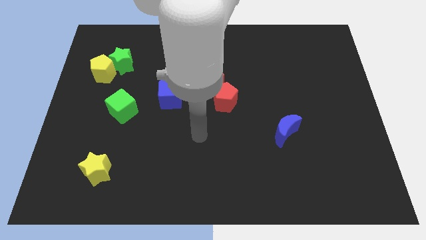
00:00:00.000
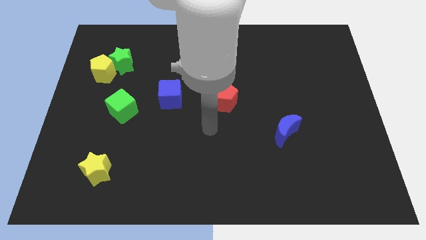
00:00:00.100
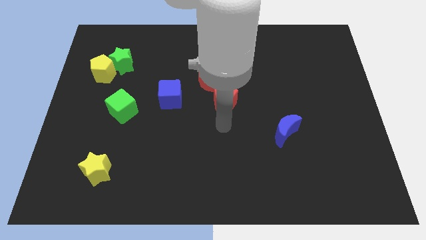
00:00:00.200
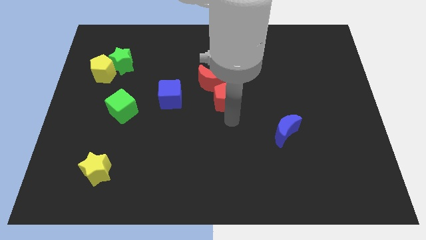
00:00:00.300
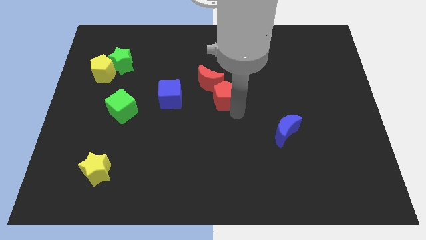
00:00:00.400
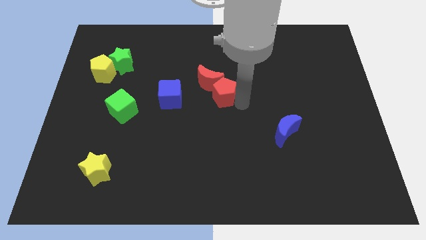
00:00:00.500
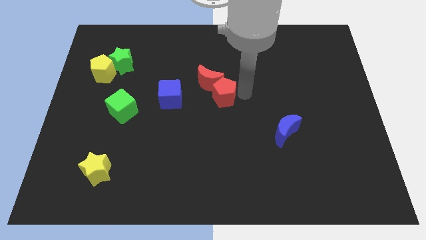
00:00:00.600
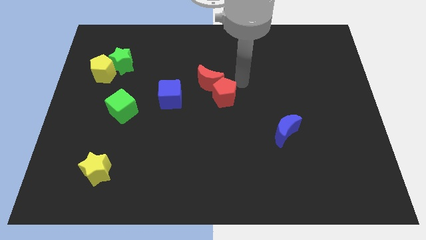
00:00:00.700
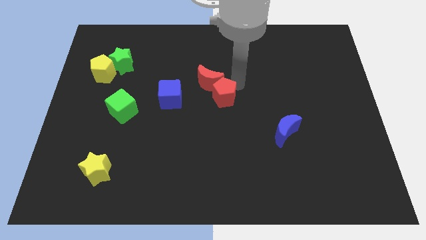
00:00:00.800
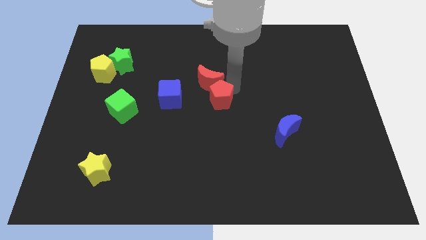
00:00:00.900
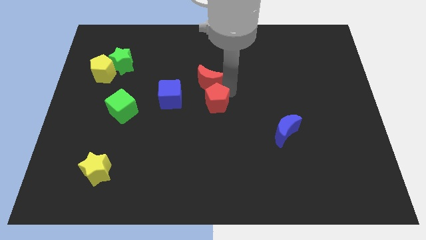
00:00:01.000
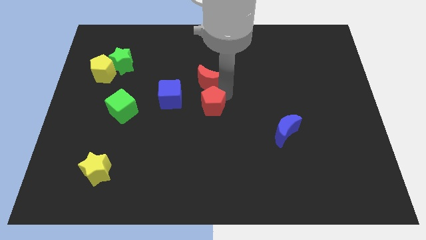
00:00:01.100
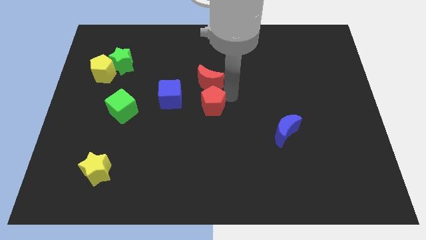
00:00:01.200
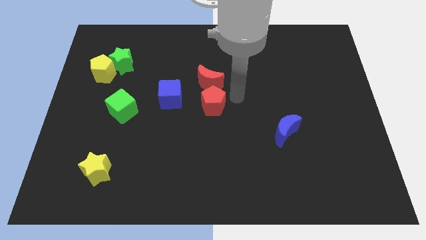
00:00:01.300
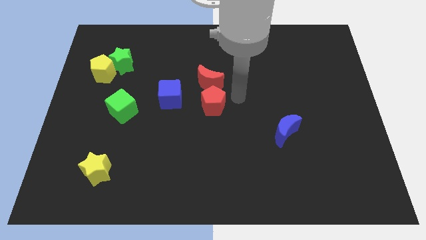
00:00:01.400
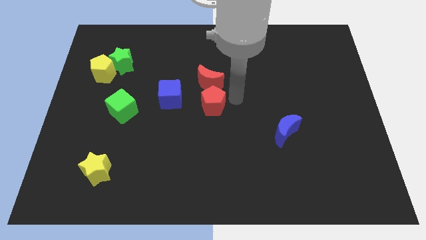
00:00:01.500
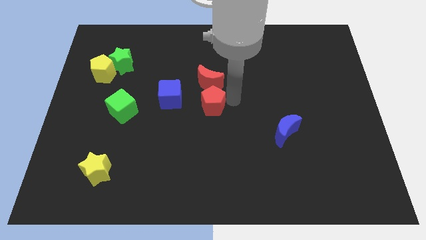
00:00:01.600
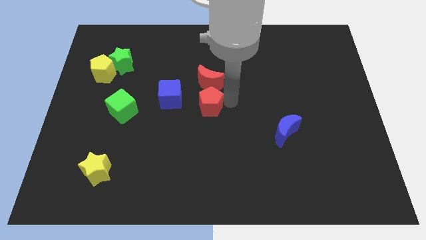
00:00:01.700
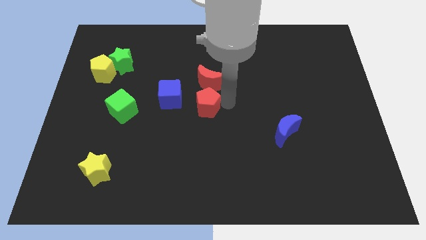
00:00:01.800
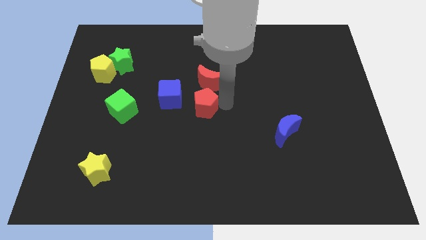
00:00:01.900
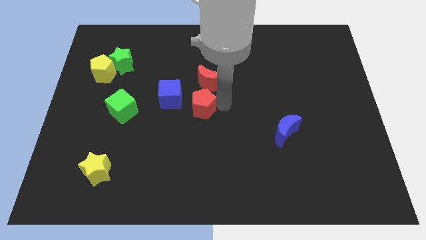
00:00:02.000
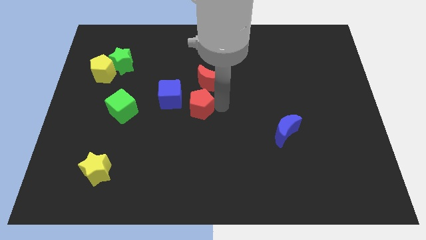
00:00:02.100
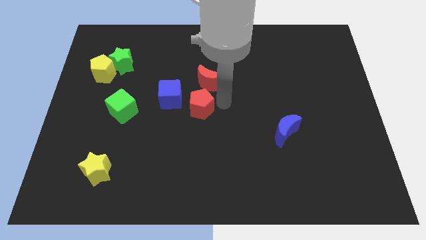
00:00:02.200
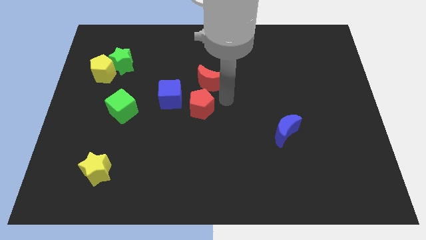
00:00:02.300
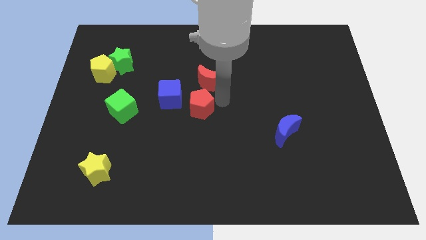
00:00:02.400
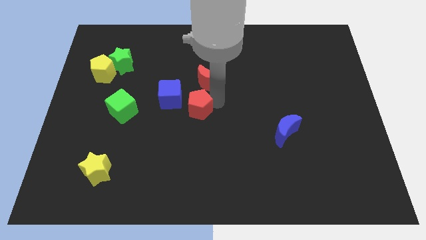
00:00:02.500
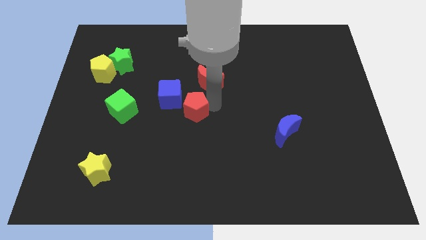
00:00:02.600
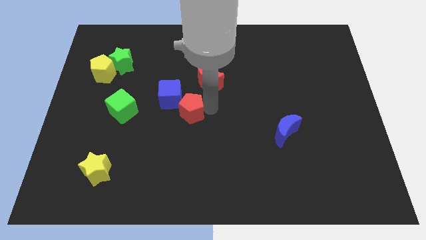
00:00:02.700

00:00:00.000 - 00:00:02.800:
move the red pentagon slightly left

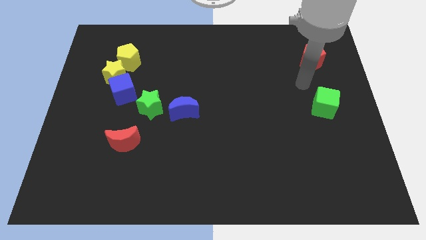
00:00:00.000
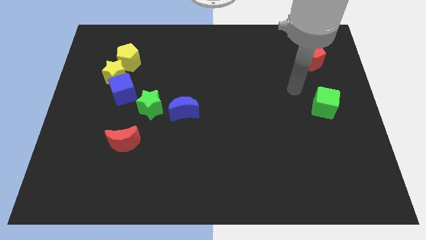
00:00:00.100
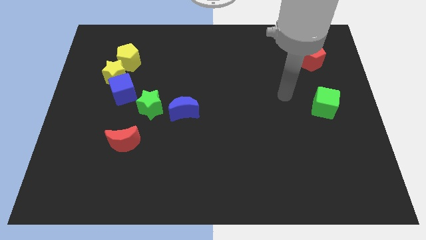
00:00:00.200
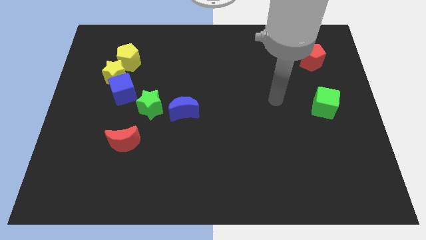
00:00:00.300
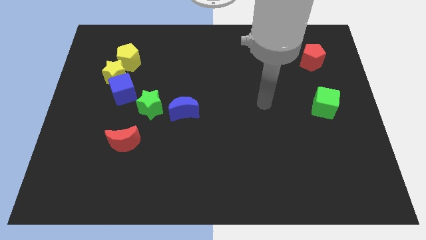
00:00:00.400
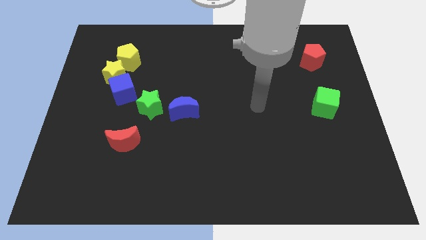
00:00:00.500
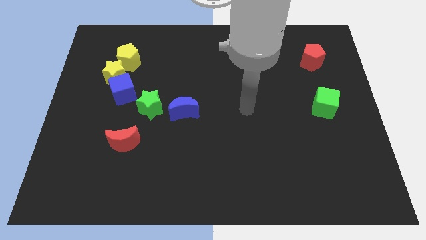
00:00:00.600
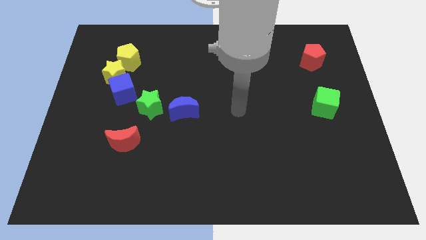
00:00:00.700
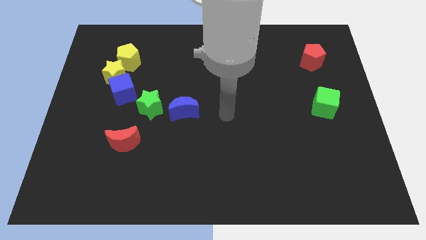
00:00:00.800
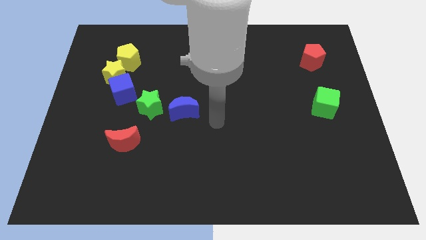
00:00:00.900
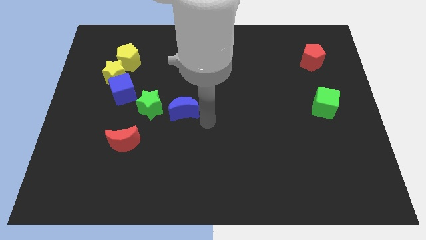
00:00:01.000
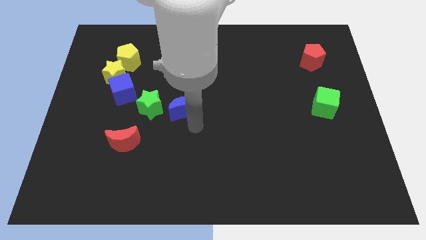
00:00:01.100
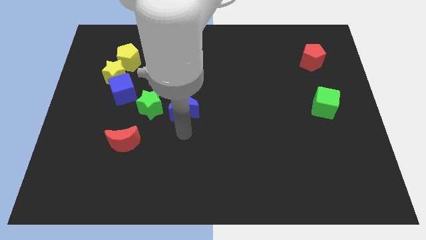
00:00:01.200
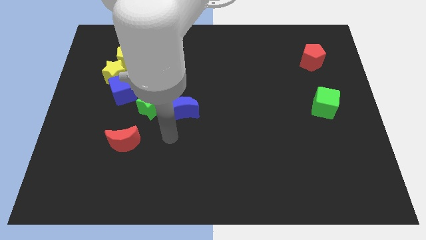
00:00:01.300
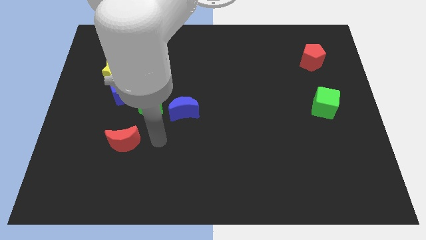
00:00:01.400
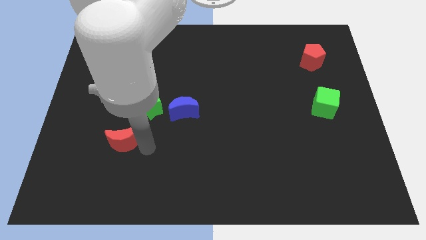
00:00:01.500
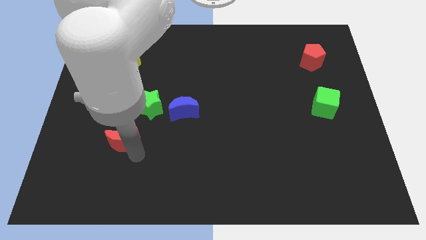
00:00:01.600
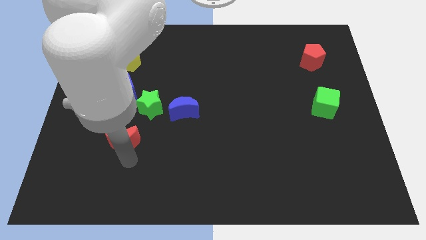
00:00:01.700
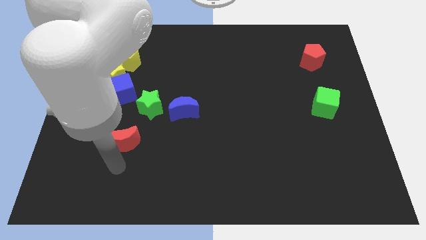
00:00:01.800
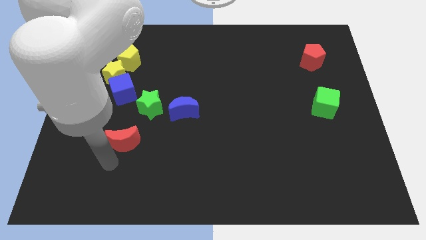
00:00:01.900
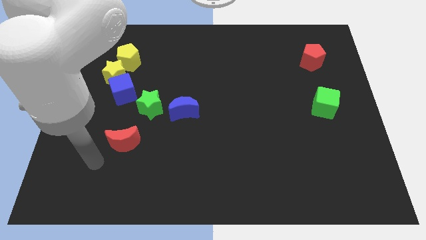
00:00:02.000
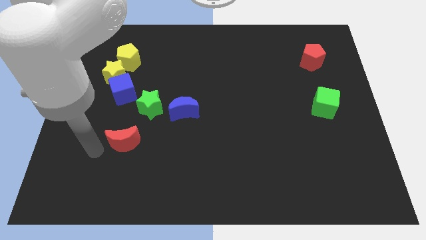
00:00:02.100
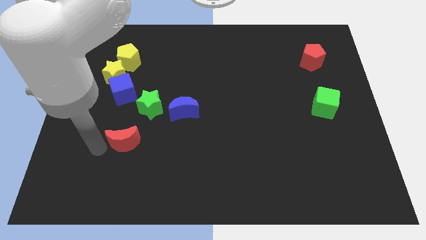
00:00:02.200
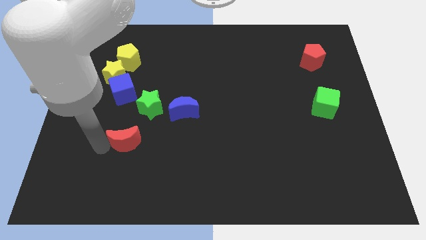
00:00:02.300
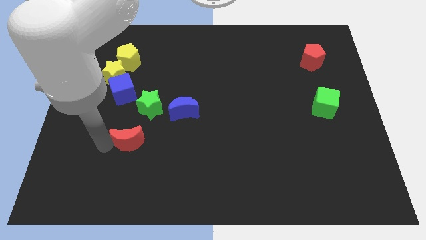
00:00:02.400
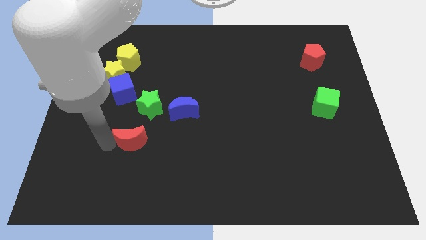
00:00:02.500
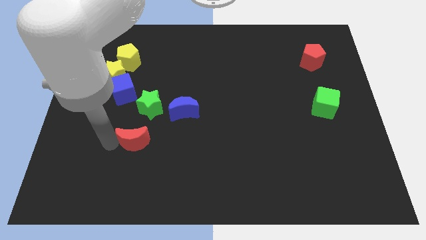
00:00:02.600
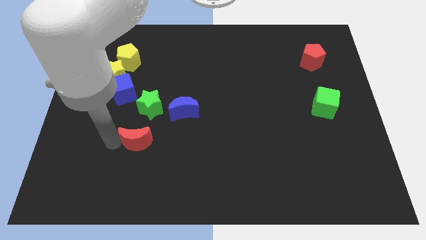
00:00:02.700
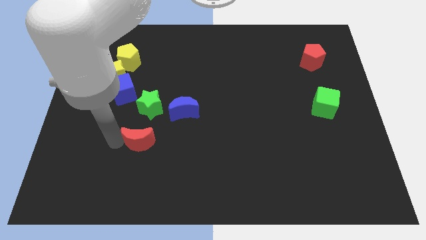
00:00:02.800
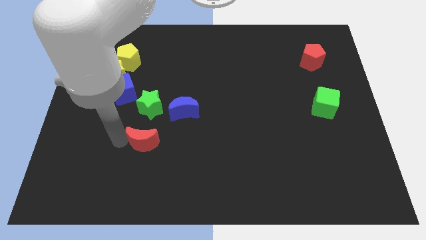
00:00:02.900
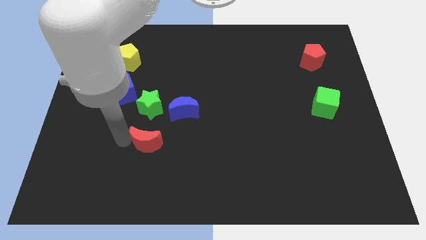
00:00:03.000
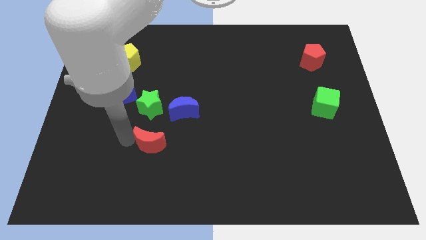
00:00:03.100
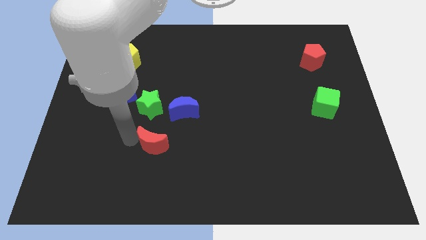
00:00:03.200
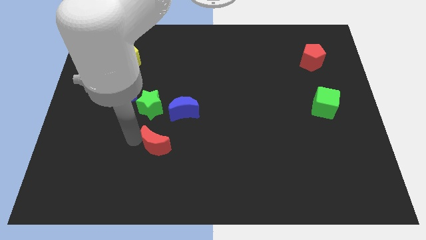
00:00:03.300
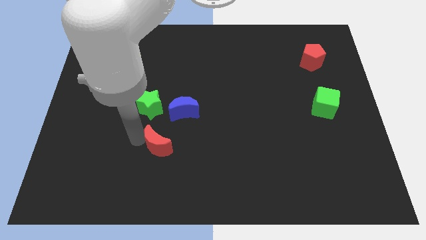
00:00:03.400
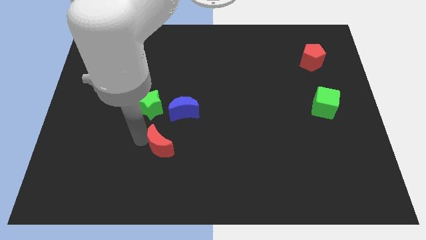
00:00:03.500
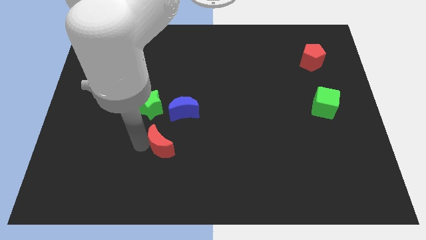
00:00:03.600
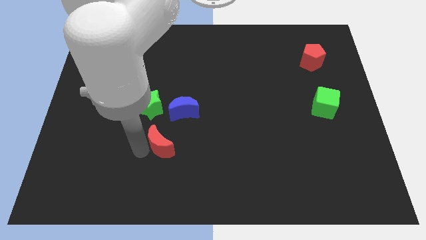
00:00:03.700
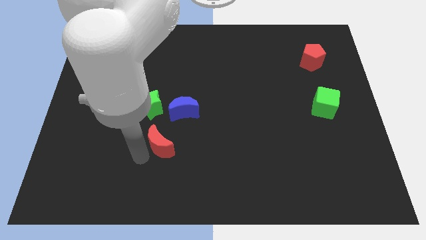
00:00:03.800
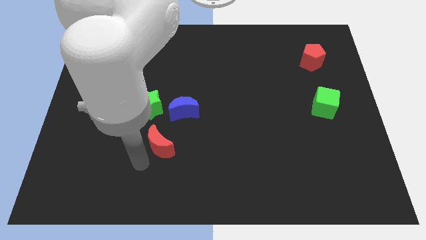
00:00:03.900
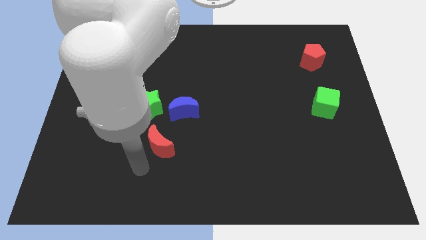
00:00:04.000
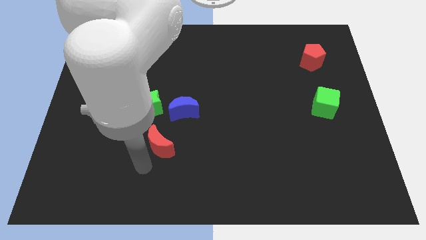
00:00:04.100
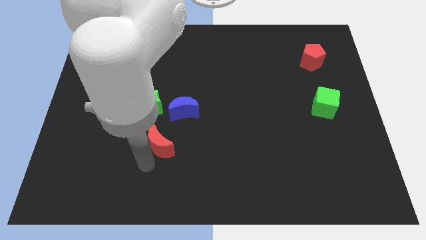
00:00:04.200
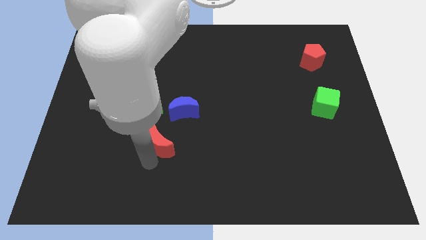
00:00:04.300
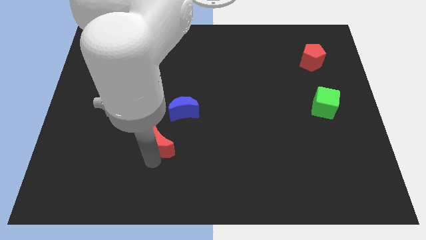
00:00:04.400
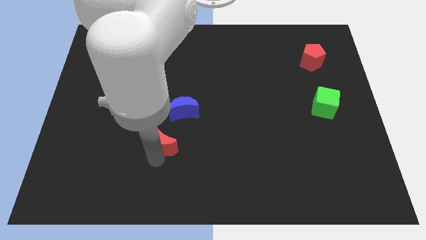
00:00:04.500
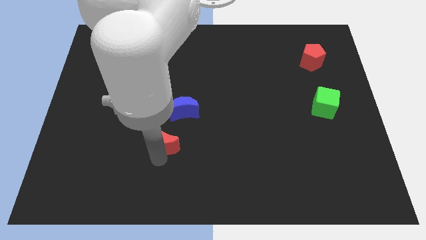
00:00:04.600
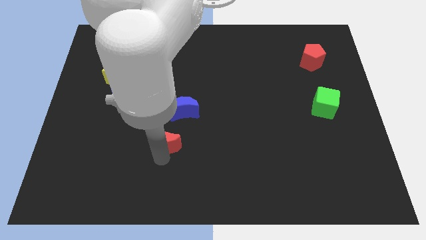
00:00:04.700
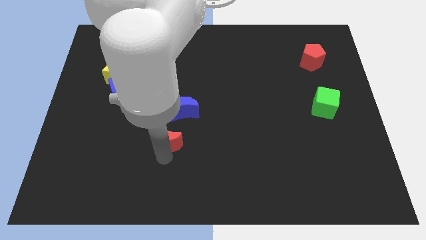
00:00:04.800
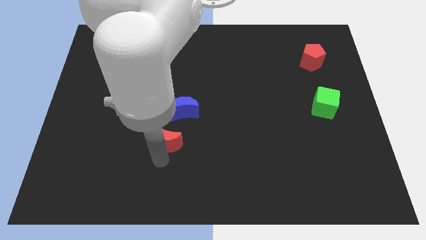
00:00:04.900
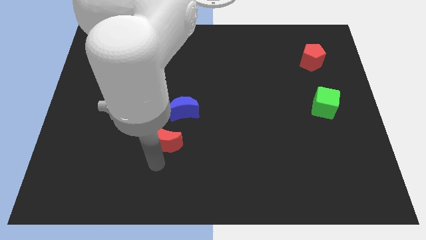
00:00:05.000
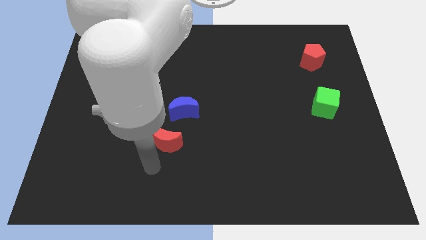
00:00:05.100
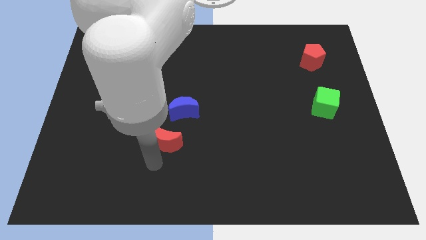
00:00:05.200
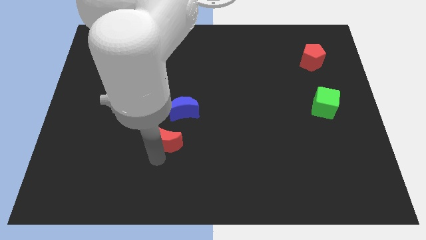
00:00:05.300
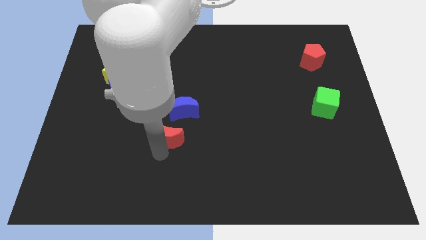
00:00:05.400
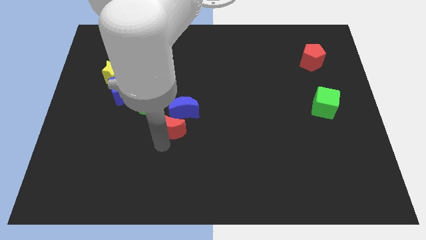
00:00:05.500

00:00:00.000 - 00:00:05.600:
move the red moon a little diagonally upwards and right
